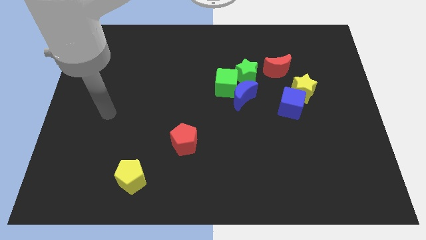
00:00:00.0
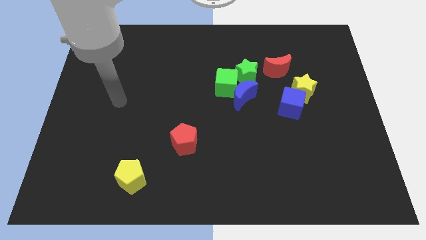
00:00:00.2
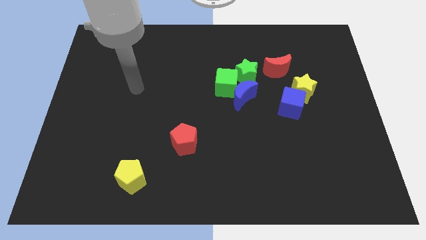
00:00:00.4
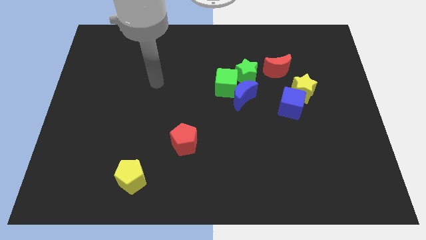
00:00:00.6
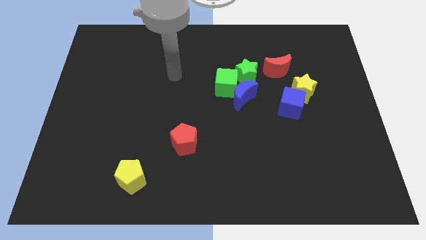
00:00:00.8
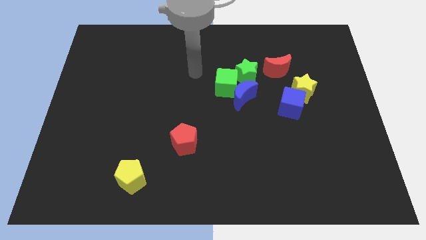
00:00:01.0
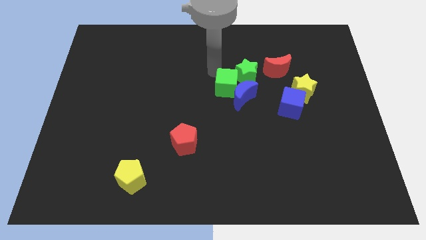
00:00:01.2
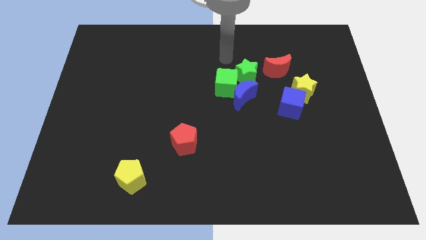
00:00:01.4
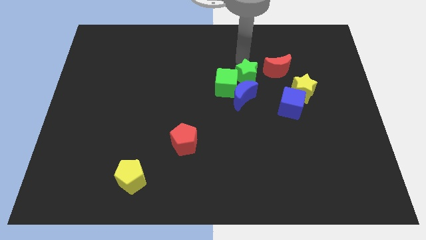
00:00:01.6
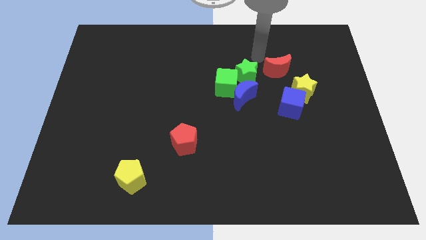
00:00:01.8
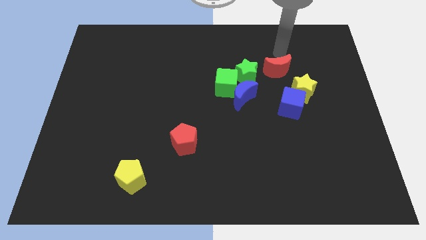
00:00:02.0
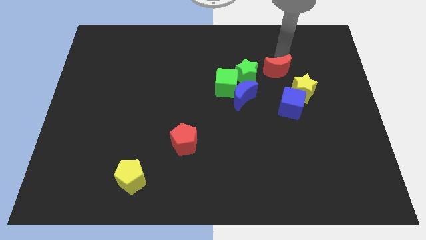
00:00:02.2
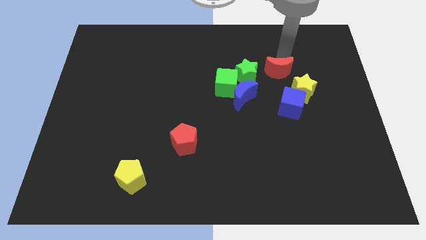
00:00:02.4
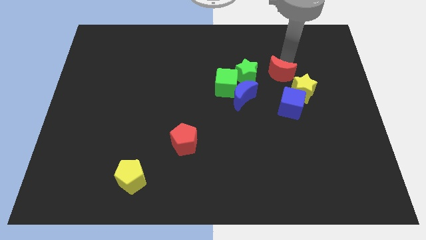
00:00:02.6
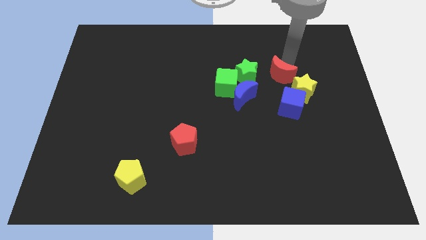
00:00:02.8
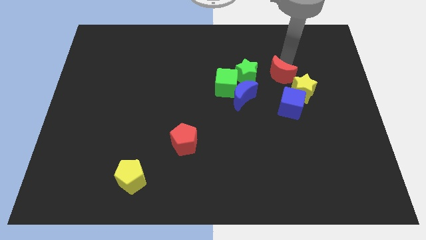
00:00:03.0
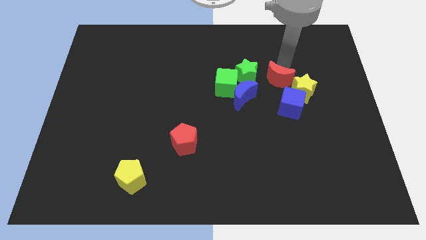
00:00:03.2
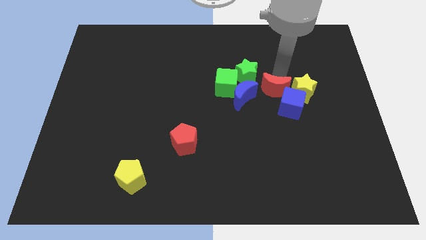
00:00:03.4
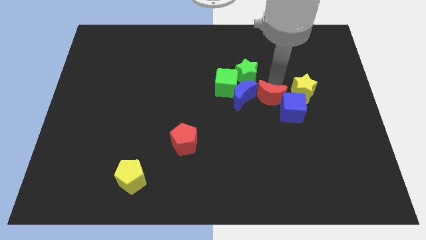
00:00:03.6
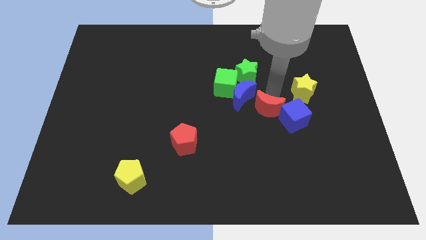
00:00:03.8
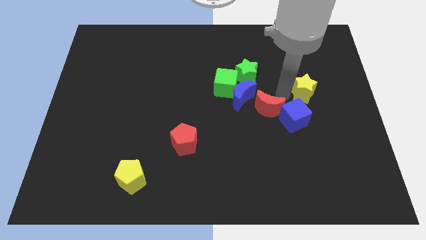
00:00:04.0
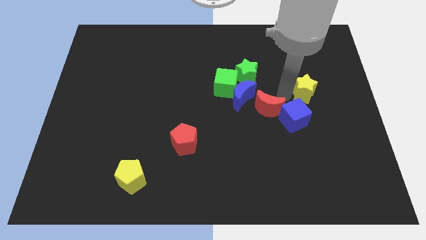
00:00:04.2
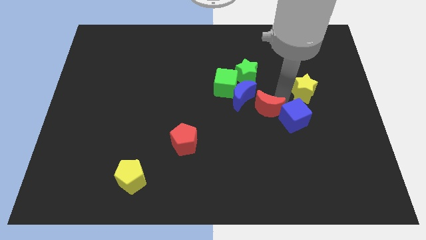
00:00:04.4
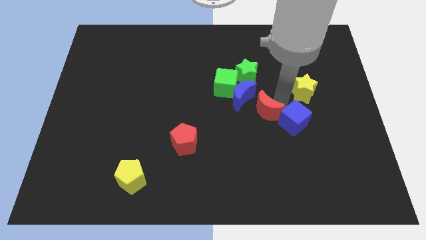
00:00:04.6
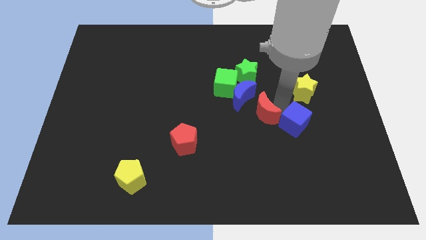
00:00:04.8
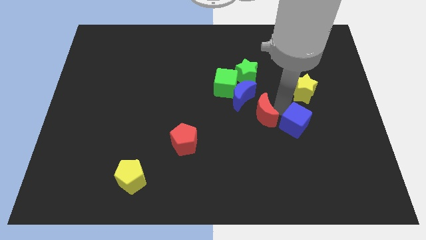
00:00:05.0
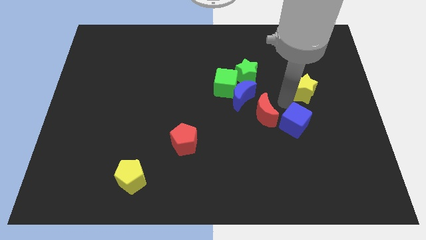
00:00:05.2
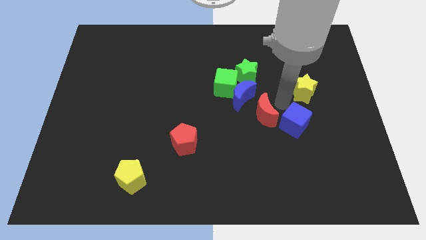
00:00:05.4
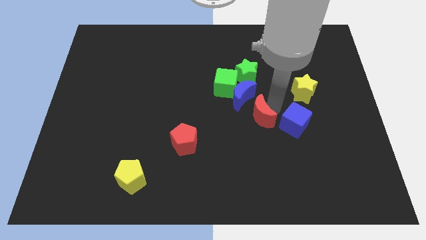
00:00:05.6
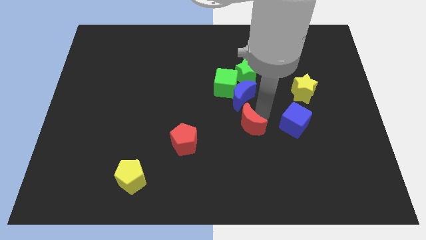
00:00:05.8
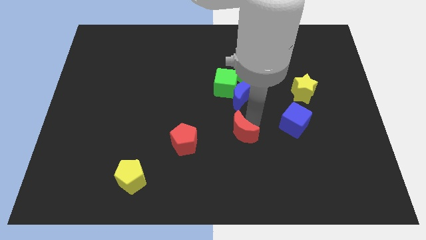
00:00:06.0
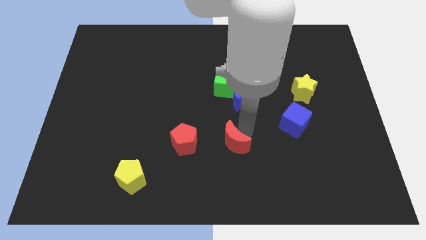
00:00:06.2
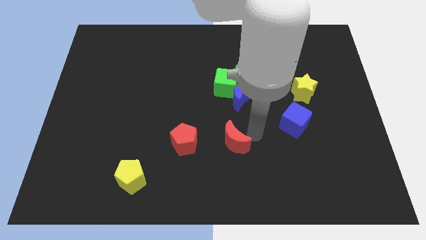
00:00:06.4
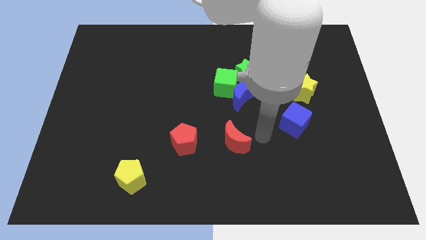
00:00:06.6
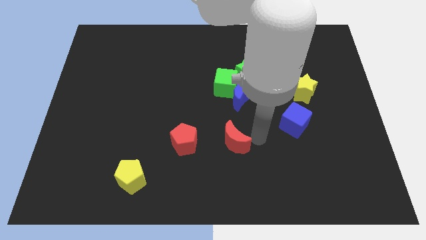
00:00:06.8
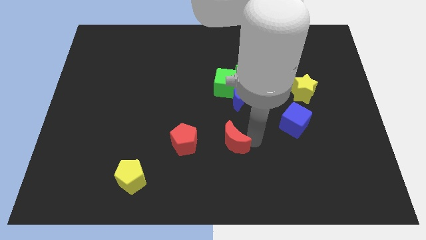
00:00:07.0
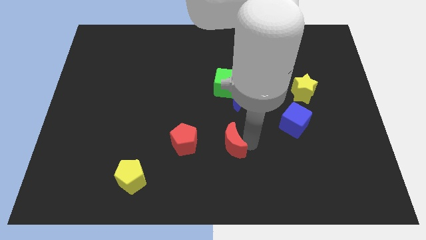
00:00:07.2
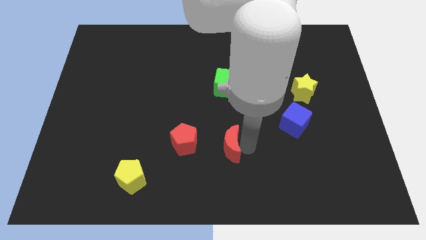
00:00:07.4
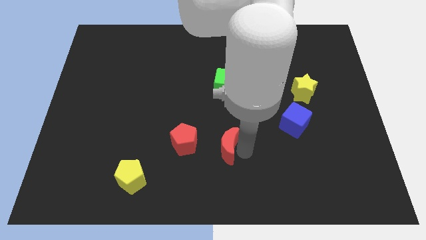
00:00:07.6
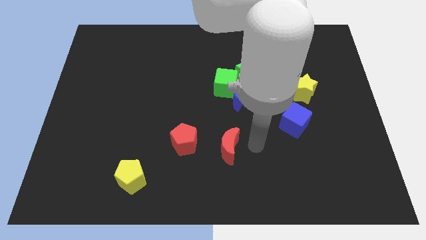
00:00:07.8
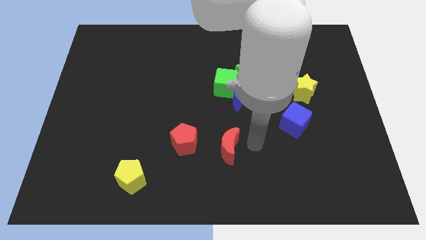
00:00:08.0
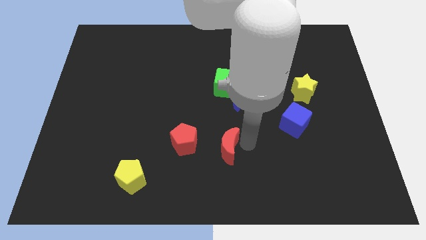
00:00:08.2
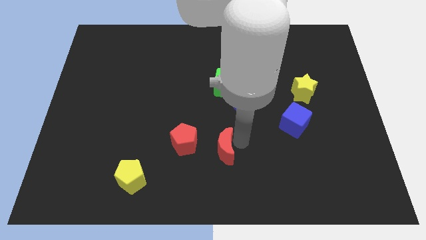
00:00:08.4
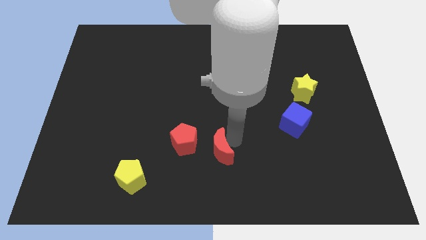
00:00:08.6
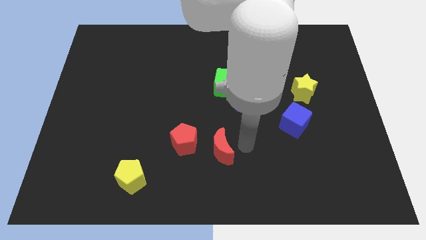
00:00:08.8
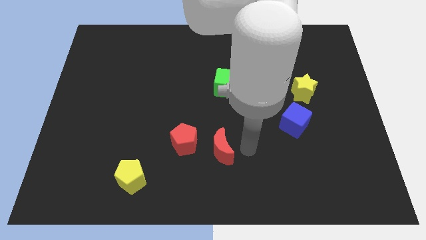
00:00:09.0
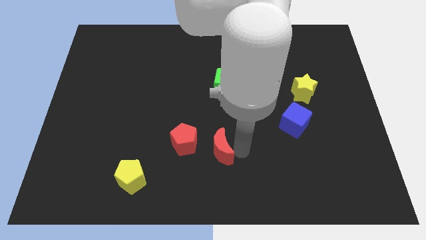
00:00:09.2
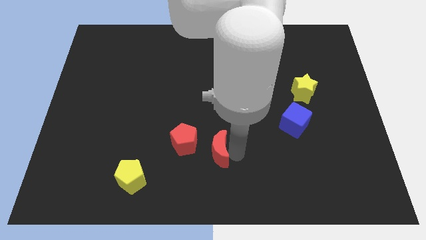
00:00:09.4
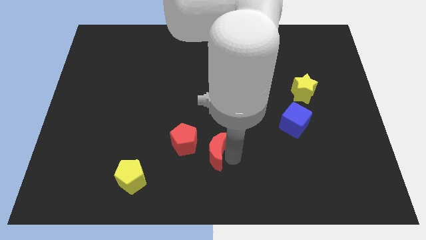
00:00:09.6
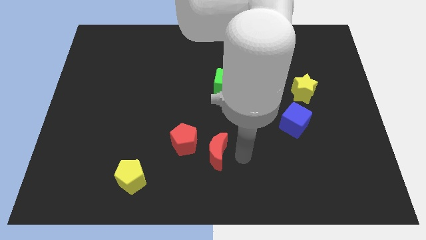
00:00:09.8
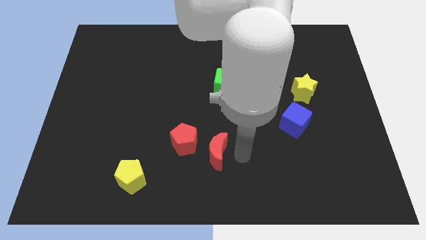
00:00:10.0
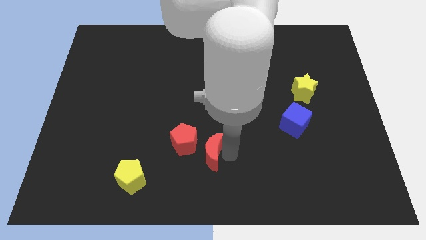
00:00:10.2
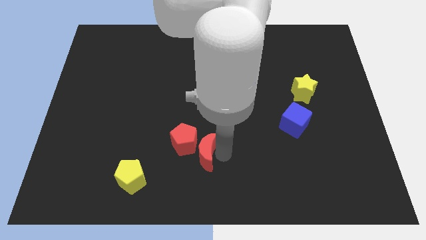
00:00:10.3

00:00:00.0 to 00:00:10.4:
slide the red moon next to the red pentagon

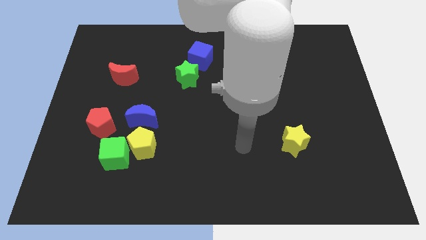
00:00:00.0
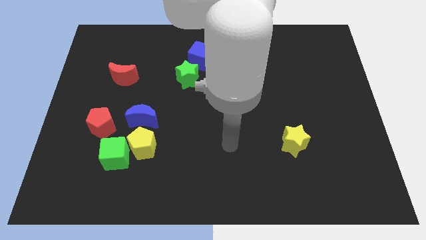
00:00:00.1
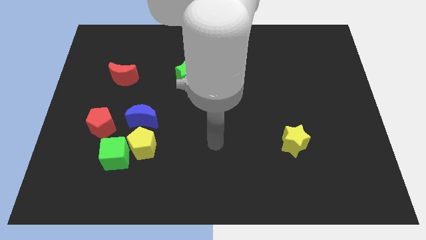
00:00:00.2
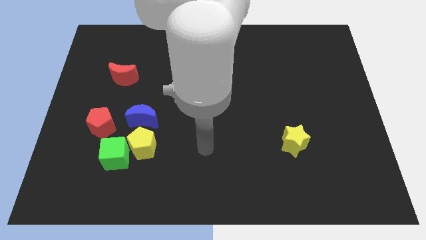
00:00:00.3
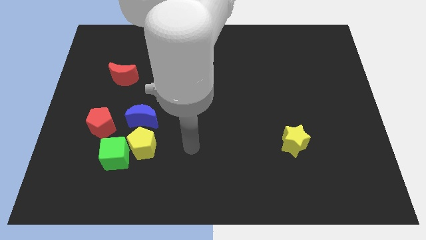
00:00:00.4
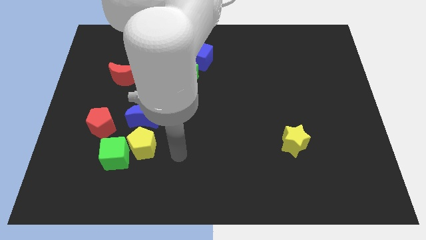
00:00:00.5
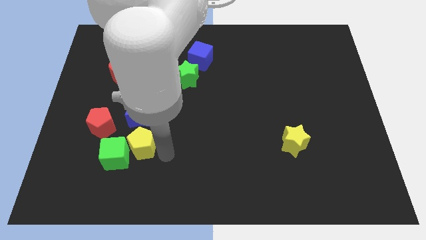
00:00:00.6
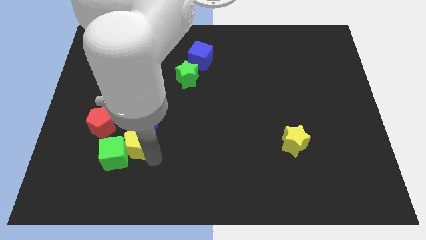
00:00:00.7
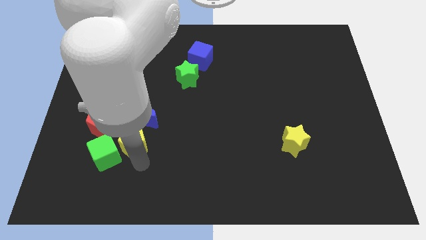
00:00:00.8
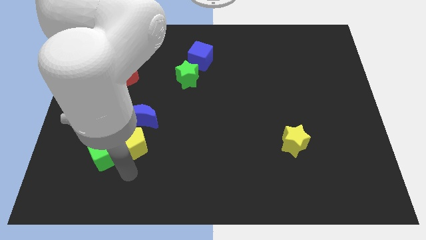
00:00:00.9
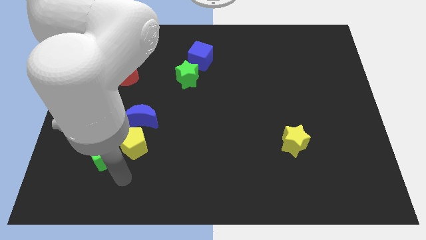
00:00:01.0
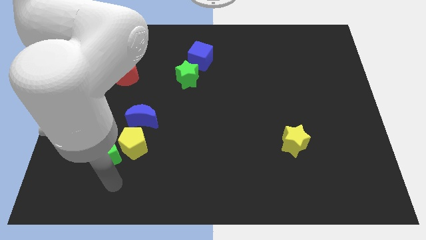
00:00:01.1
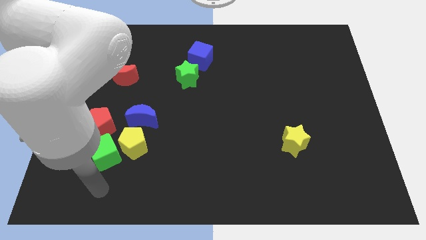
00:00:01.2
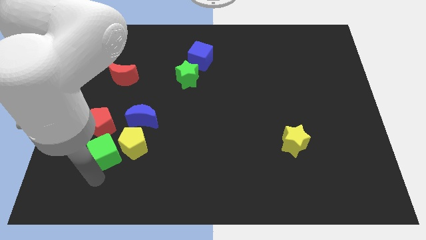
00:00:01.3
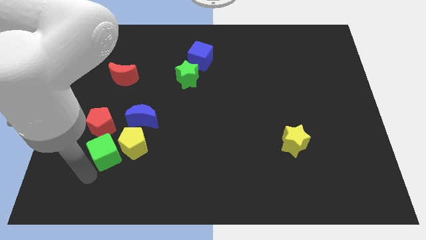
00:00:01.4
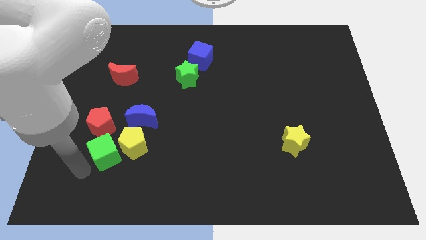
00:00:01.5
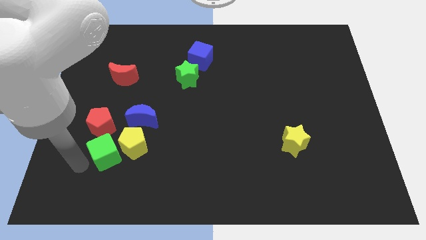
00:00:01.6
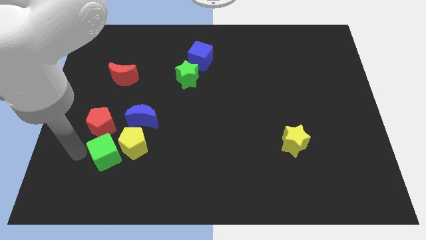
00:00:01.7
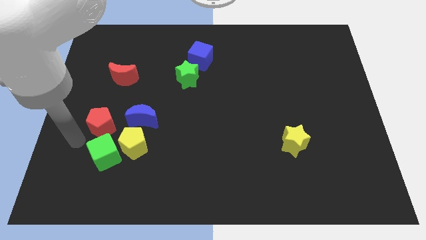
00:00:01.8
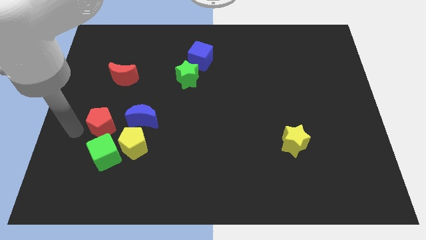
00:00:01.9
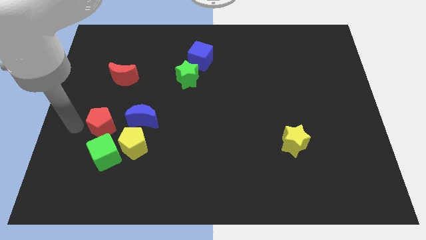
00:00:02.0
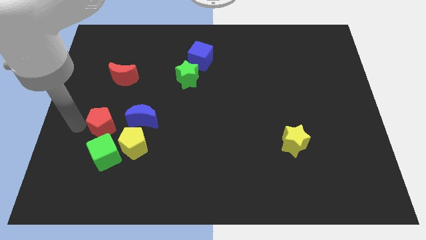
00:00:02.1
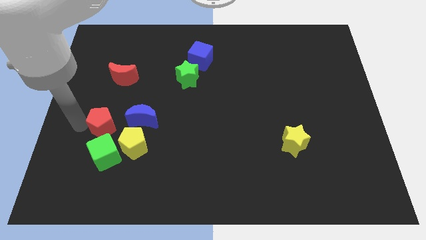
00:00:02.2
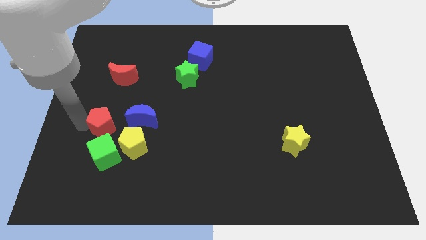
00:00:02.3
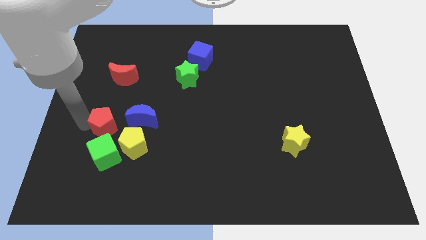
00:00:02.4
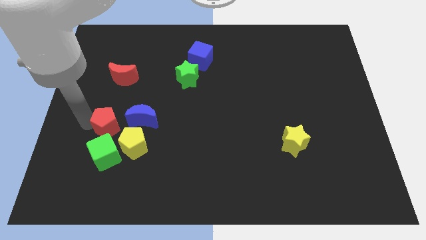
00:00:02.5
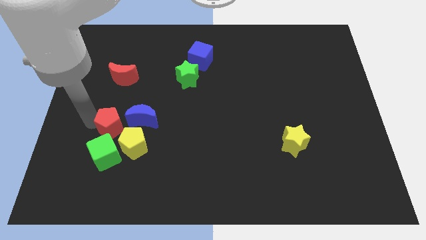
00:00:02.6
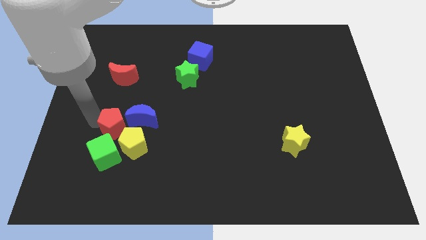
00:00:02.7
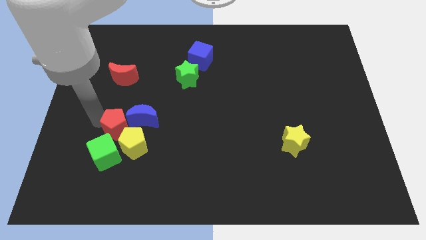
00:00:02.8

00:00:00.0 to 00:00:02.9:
move the red pentagon close to the blue moon
